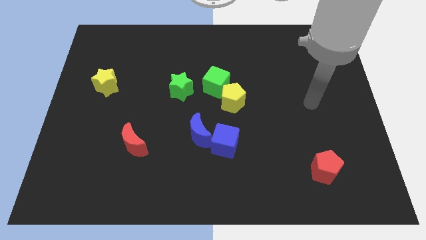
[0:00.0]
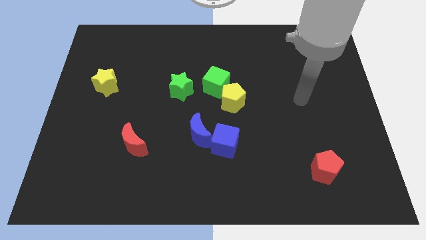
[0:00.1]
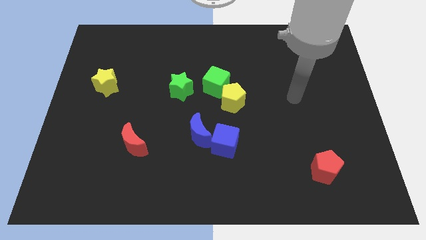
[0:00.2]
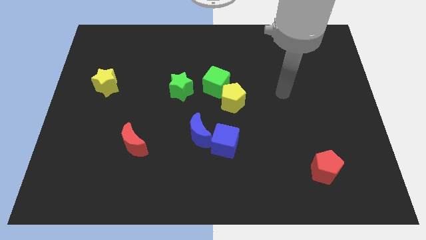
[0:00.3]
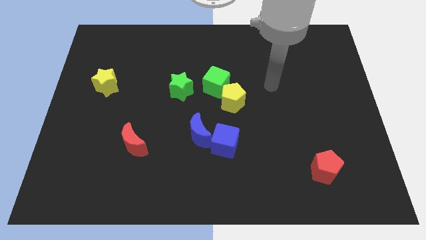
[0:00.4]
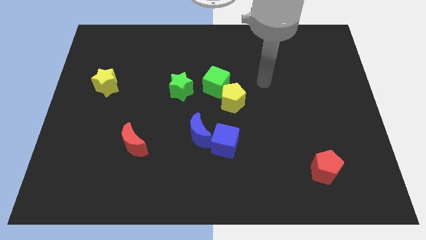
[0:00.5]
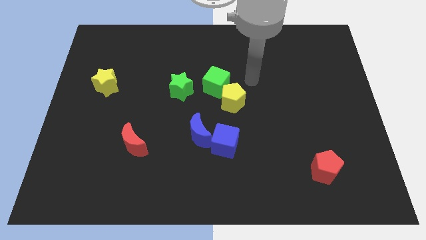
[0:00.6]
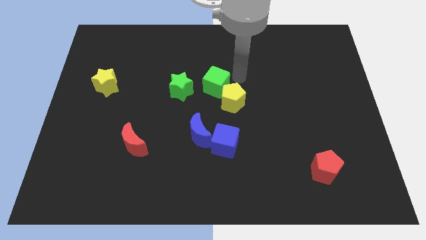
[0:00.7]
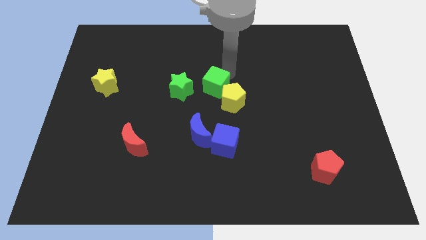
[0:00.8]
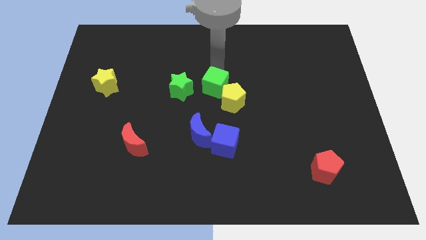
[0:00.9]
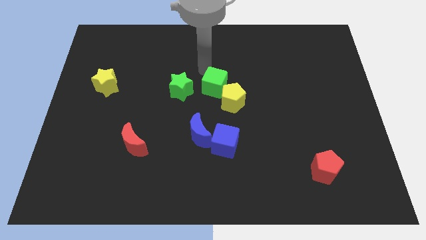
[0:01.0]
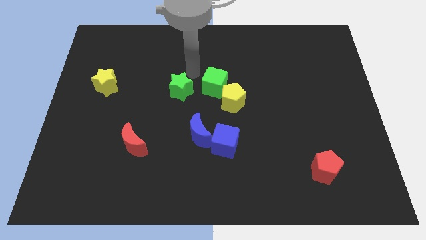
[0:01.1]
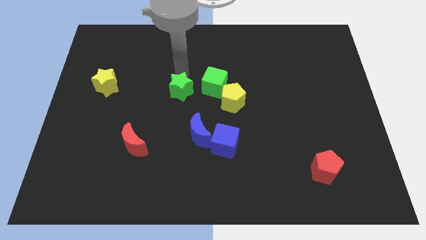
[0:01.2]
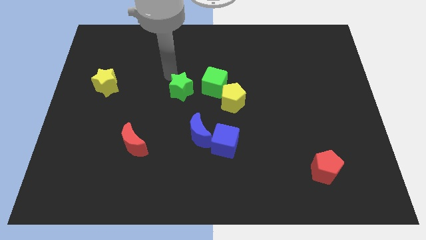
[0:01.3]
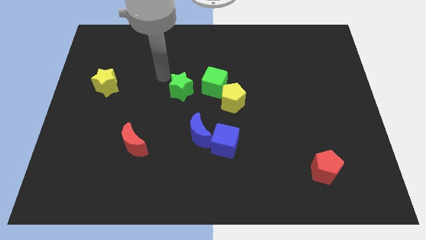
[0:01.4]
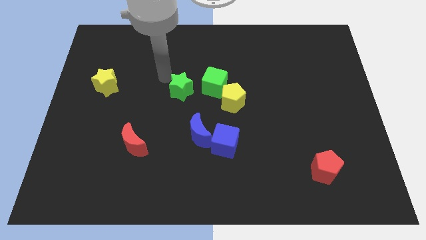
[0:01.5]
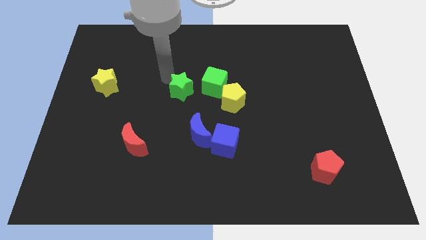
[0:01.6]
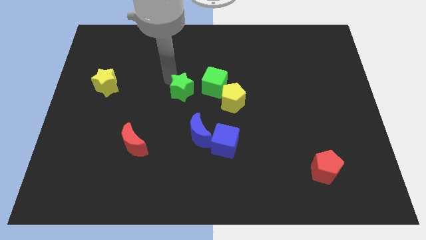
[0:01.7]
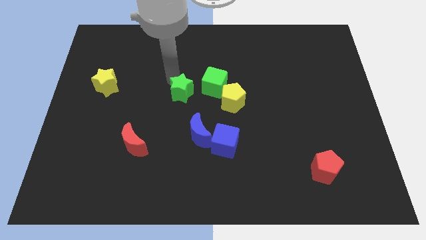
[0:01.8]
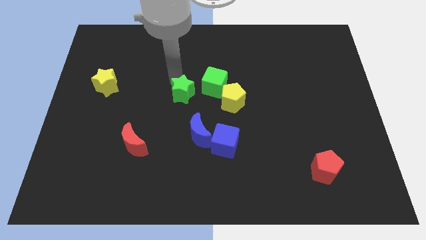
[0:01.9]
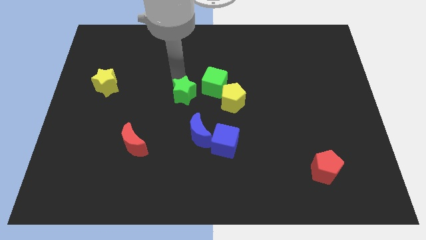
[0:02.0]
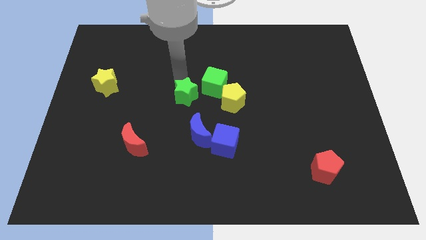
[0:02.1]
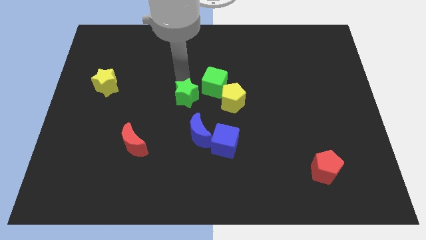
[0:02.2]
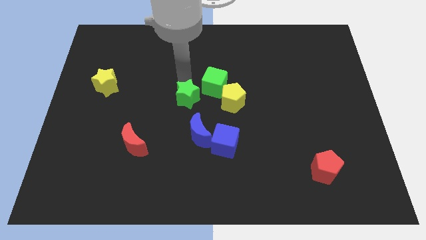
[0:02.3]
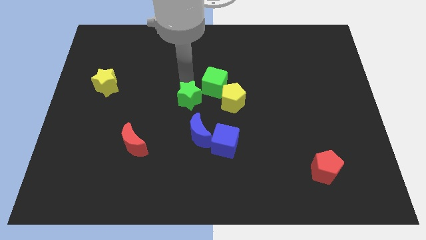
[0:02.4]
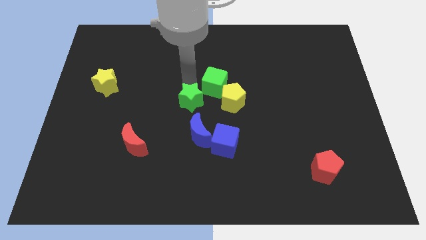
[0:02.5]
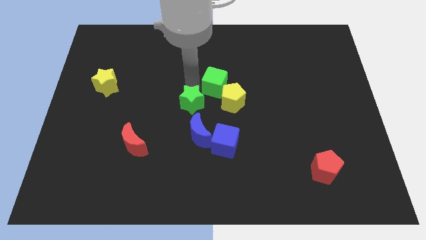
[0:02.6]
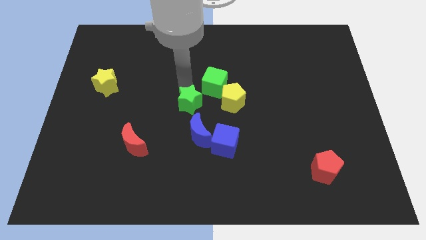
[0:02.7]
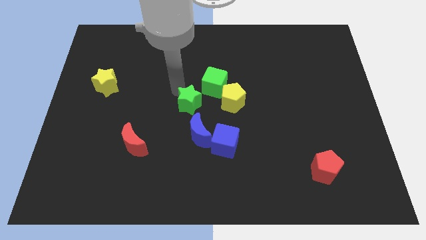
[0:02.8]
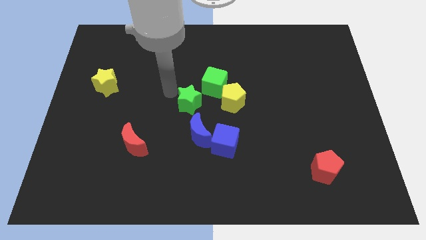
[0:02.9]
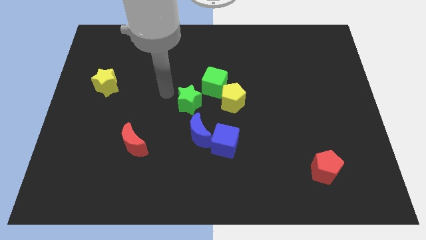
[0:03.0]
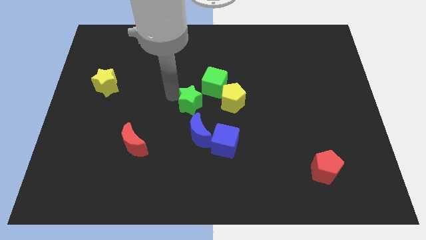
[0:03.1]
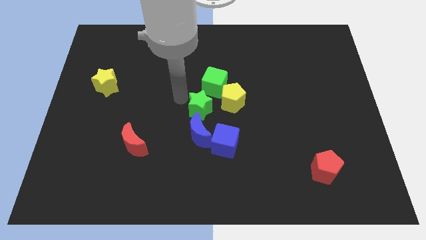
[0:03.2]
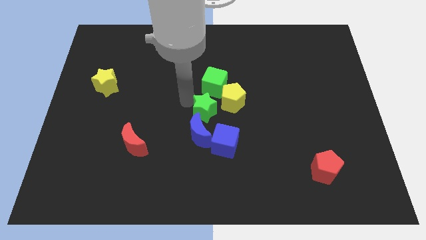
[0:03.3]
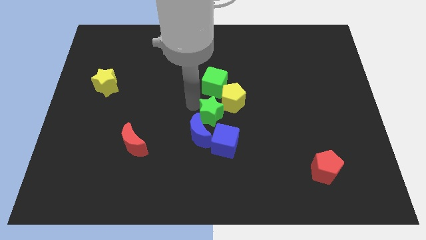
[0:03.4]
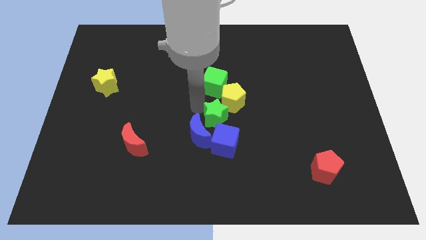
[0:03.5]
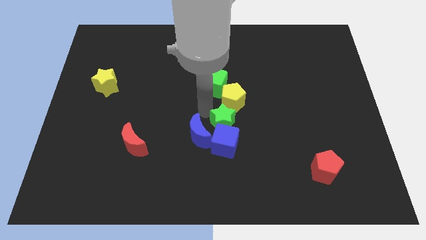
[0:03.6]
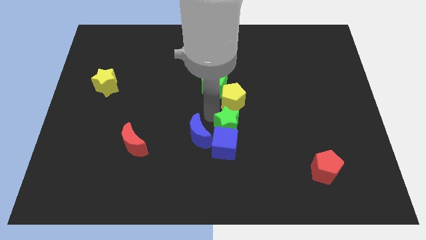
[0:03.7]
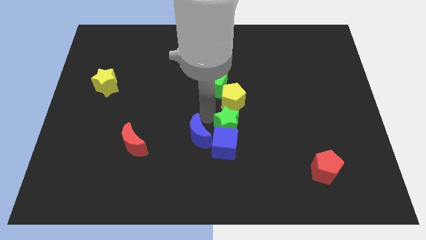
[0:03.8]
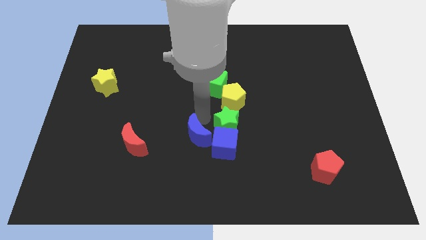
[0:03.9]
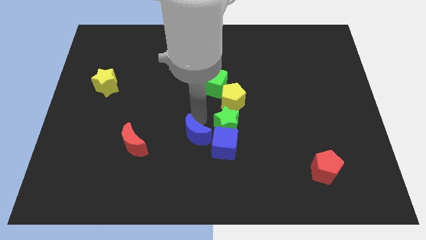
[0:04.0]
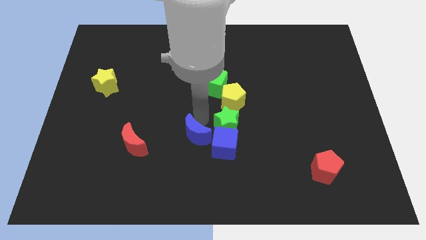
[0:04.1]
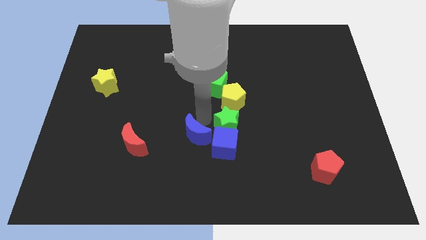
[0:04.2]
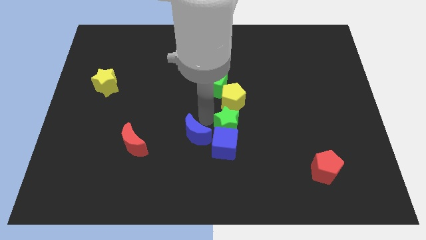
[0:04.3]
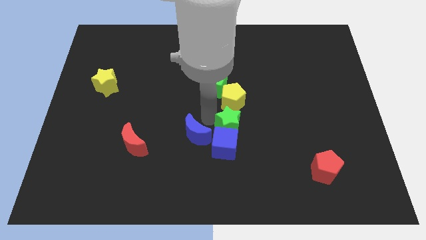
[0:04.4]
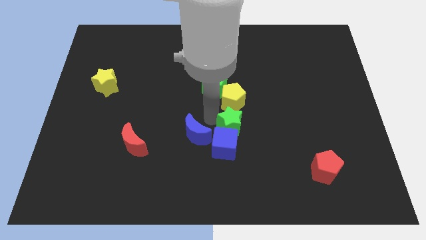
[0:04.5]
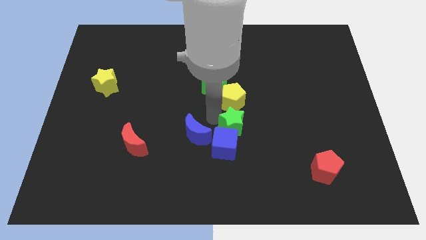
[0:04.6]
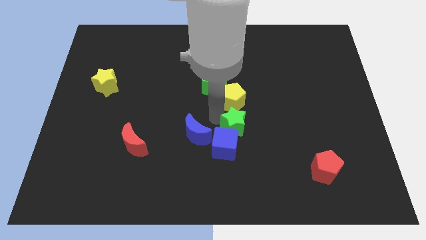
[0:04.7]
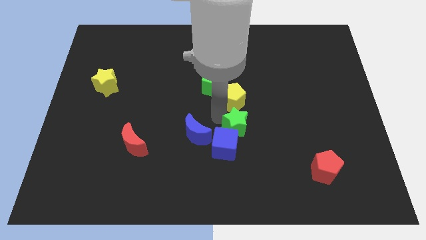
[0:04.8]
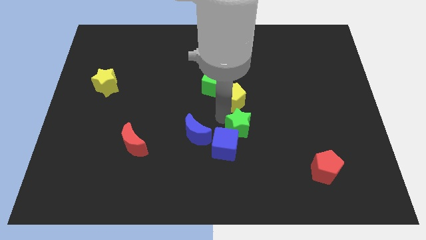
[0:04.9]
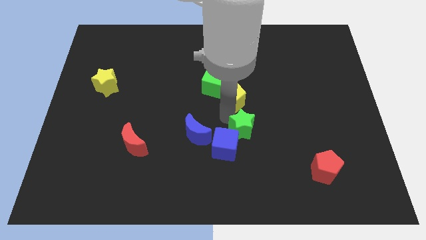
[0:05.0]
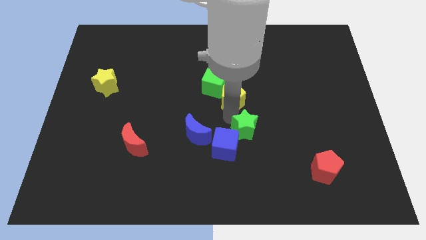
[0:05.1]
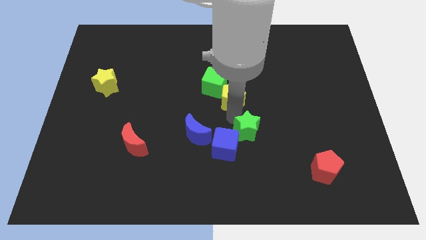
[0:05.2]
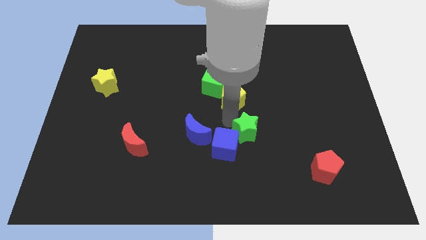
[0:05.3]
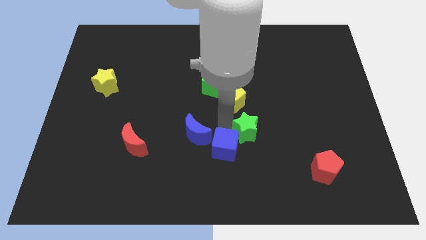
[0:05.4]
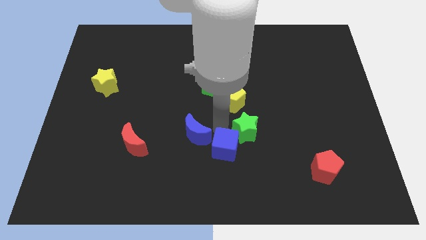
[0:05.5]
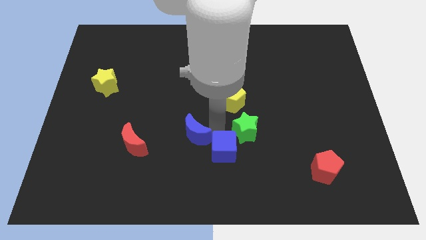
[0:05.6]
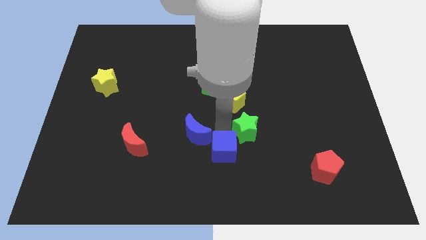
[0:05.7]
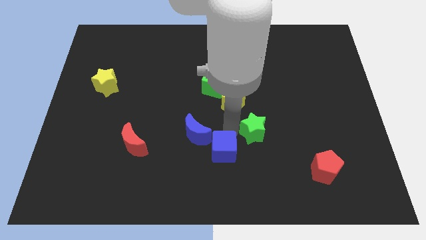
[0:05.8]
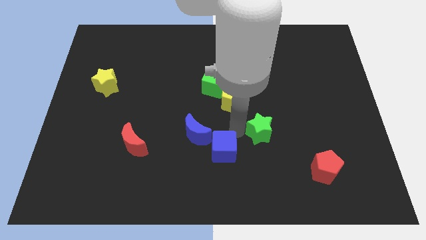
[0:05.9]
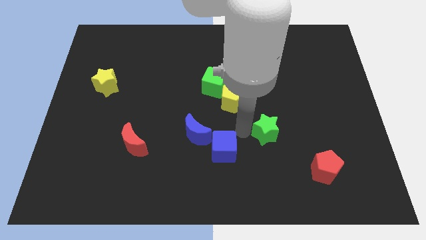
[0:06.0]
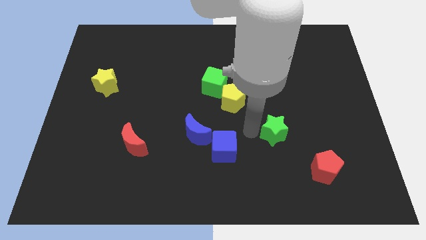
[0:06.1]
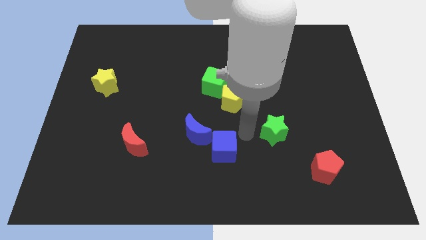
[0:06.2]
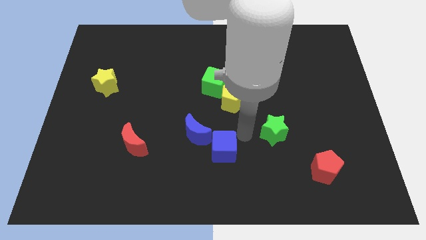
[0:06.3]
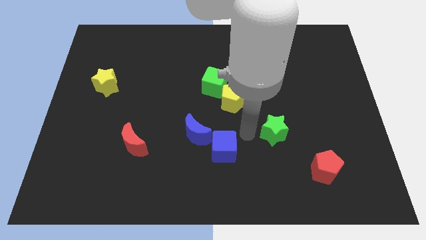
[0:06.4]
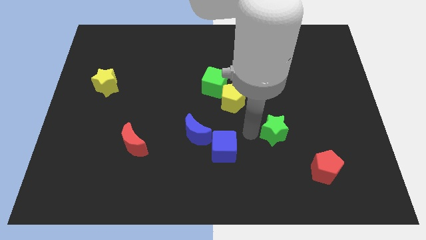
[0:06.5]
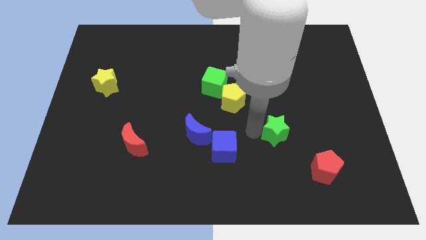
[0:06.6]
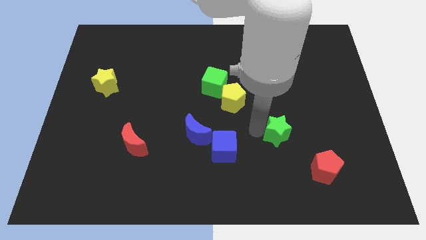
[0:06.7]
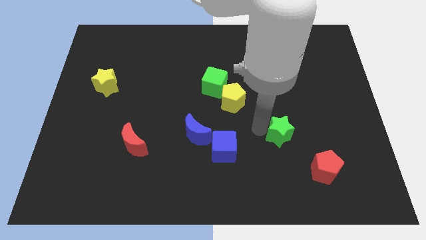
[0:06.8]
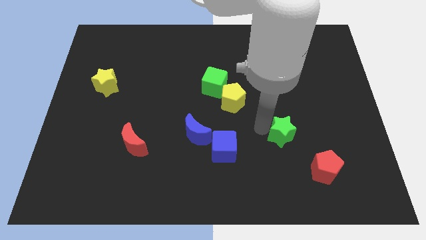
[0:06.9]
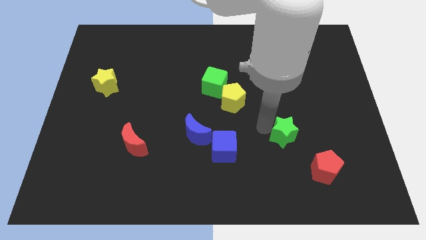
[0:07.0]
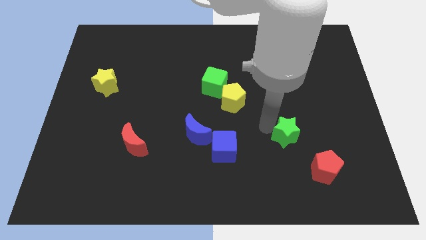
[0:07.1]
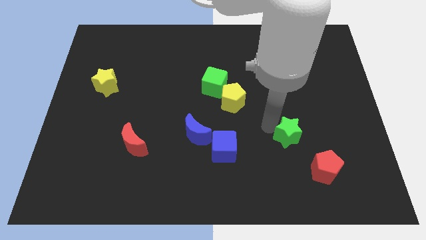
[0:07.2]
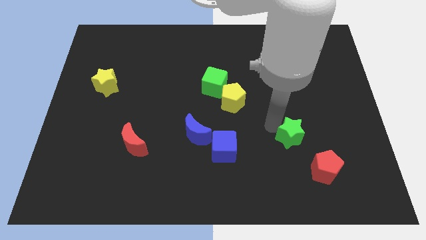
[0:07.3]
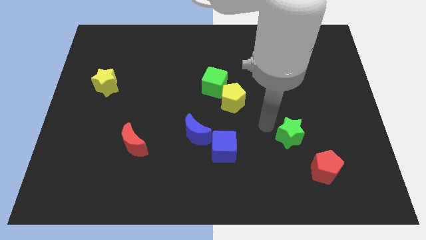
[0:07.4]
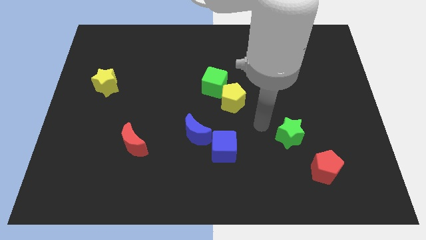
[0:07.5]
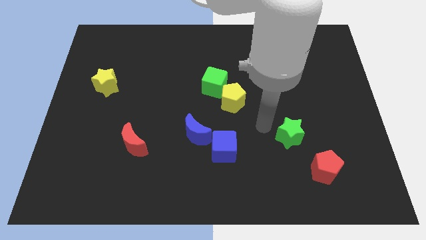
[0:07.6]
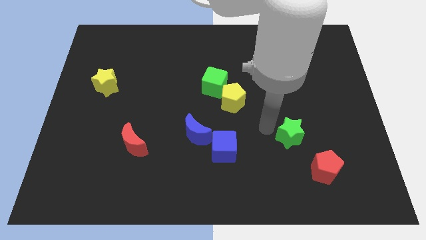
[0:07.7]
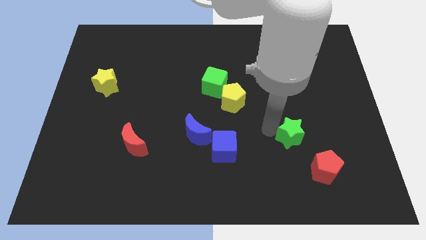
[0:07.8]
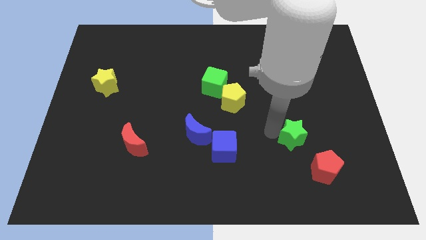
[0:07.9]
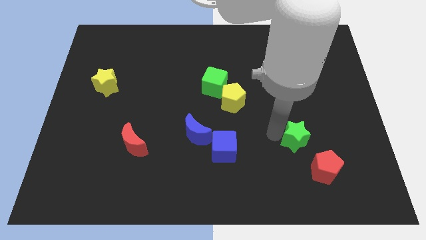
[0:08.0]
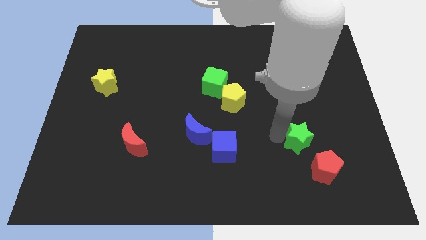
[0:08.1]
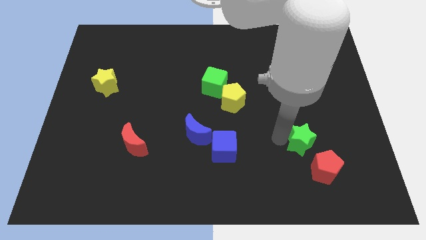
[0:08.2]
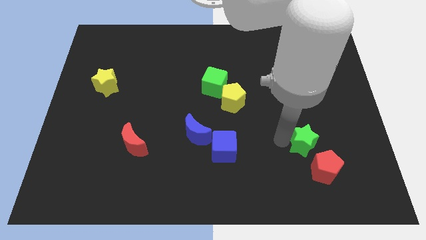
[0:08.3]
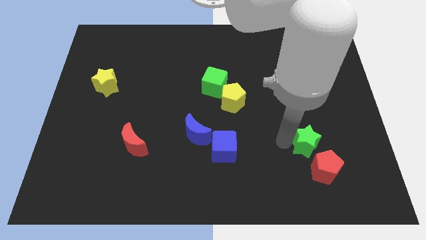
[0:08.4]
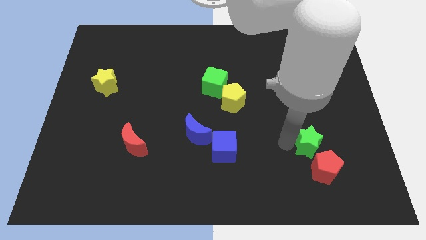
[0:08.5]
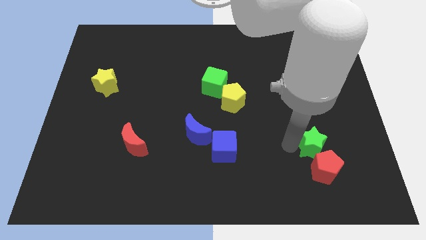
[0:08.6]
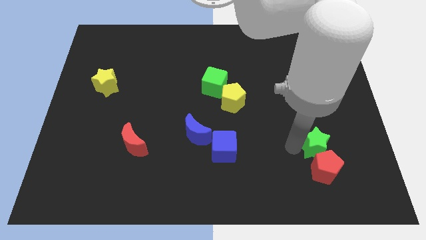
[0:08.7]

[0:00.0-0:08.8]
slide the green star diagonally up and to the right of the red pentagon
